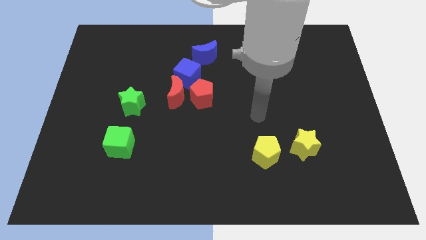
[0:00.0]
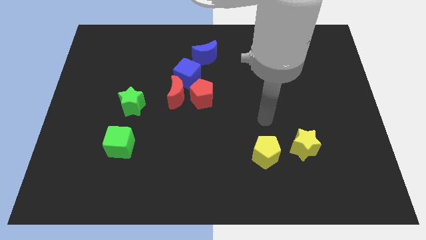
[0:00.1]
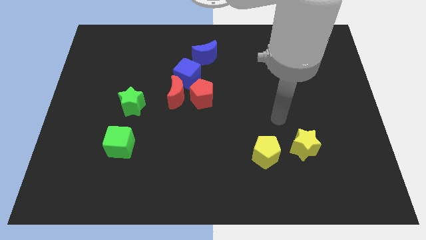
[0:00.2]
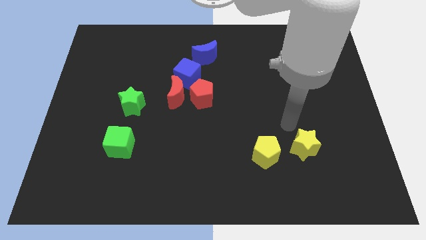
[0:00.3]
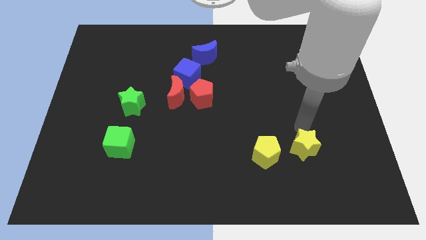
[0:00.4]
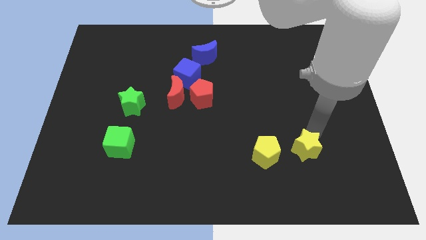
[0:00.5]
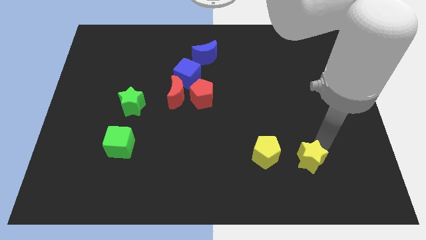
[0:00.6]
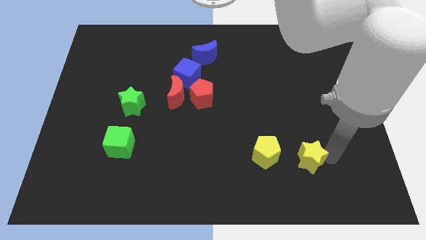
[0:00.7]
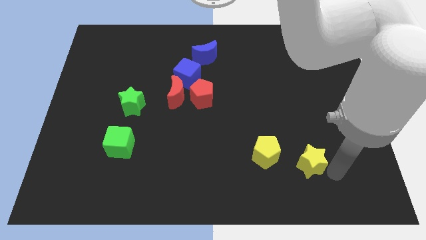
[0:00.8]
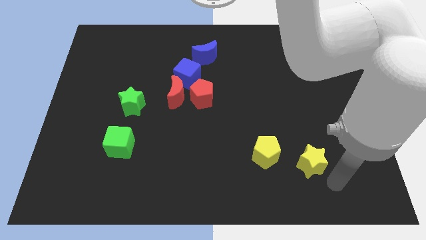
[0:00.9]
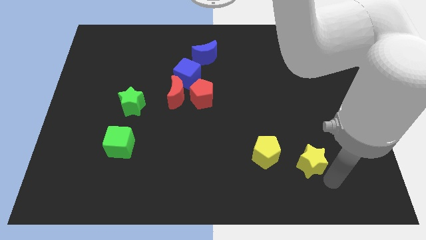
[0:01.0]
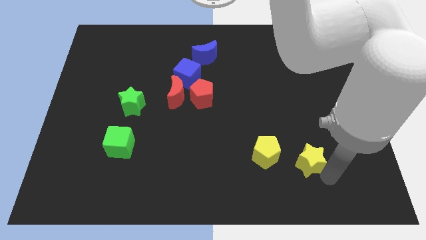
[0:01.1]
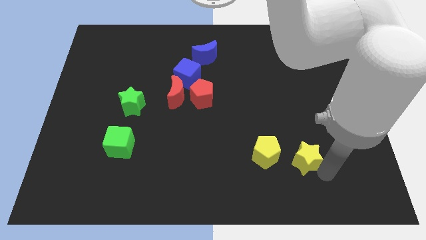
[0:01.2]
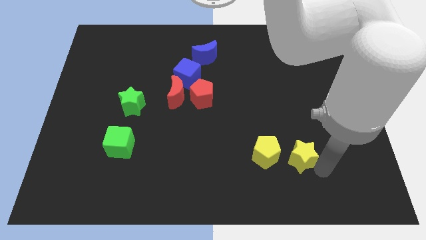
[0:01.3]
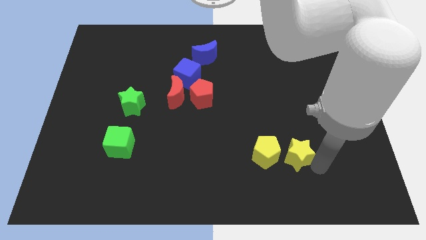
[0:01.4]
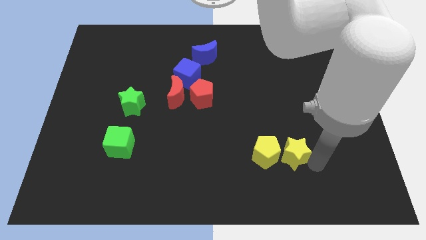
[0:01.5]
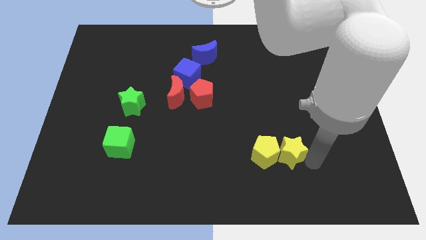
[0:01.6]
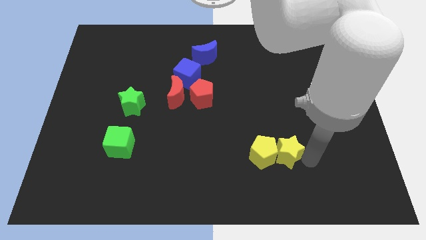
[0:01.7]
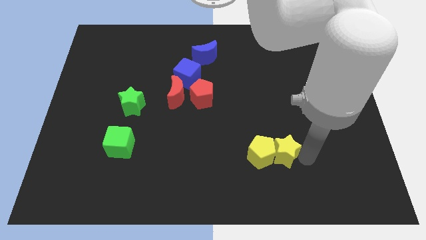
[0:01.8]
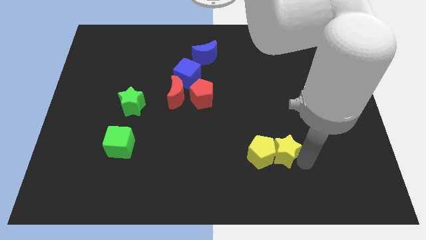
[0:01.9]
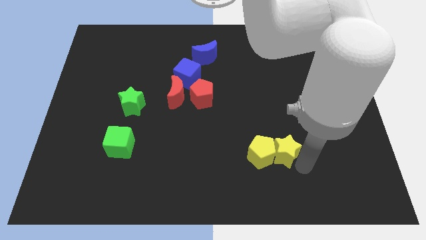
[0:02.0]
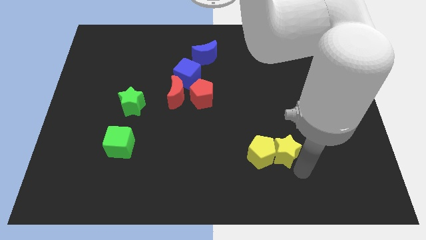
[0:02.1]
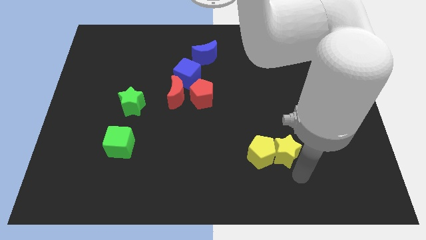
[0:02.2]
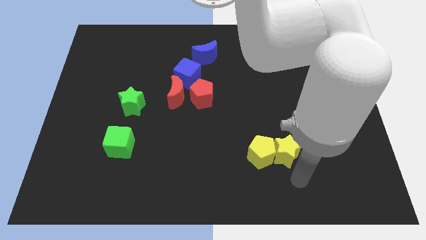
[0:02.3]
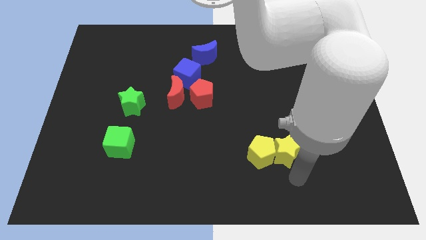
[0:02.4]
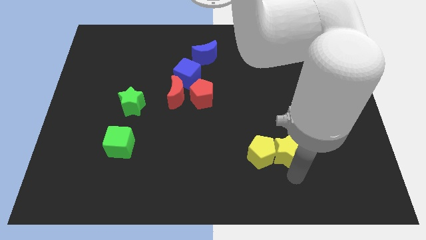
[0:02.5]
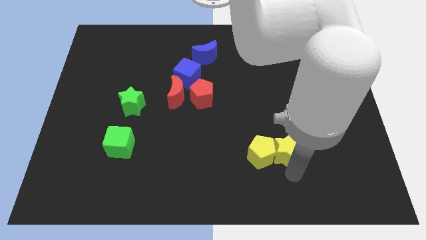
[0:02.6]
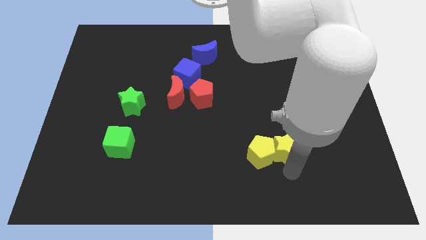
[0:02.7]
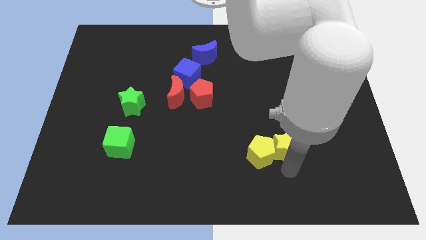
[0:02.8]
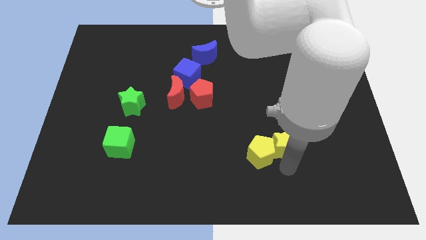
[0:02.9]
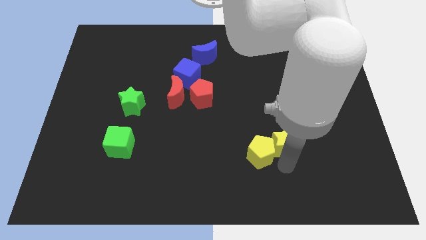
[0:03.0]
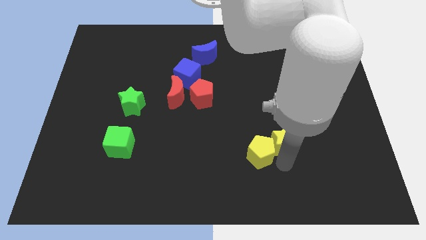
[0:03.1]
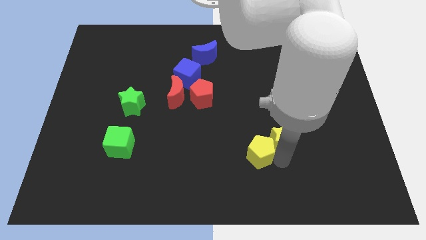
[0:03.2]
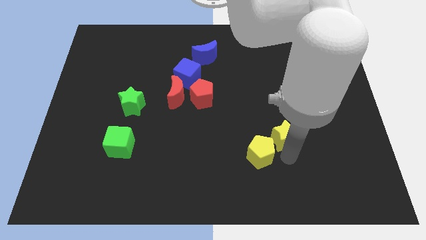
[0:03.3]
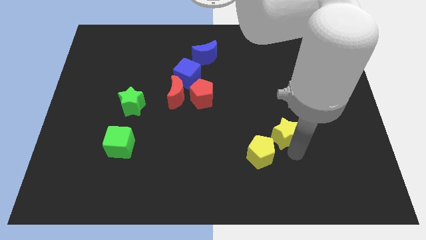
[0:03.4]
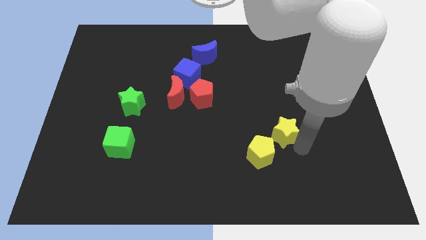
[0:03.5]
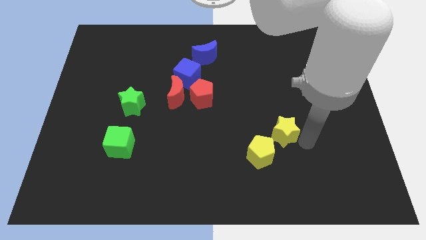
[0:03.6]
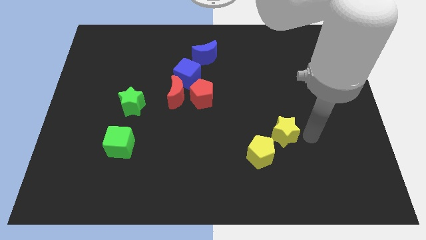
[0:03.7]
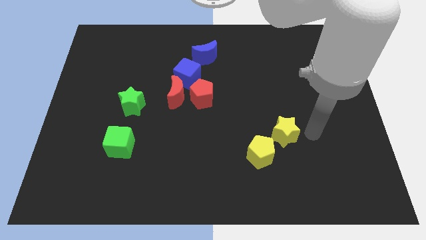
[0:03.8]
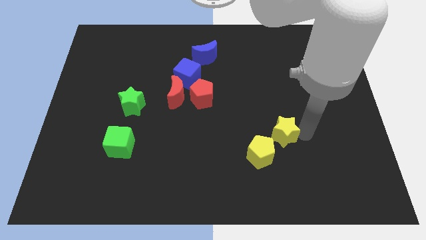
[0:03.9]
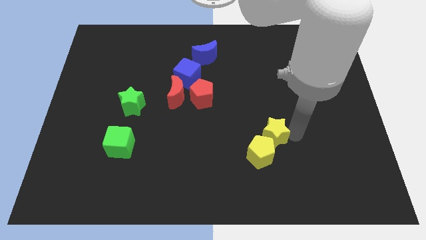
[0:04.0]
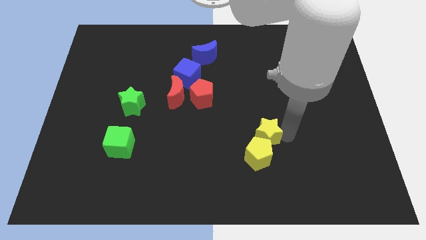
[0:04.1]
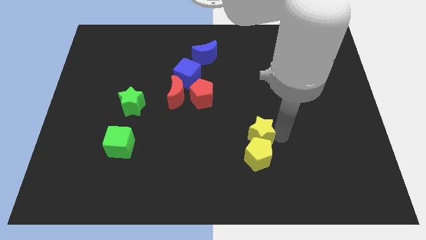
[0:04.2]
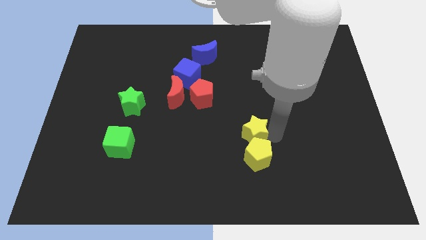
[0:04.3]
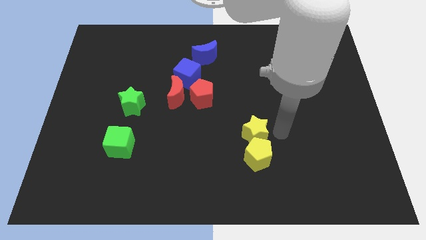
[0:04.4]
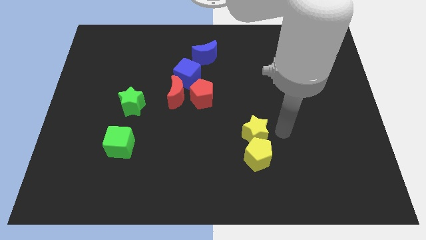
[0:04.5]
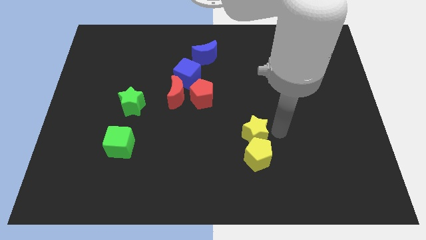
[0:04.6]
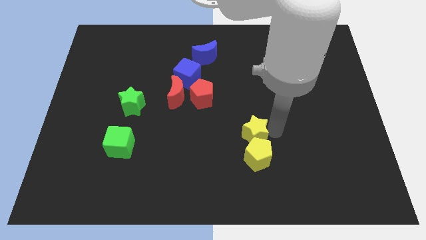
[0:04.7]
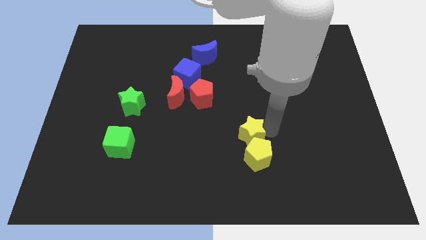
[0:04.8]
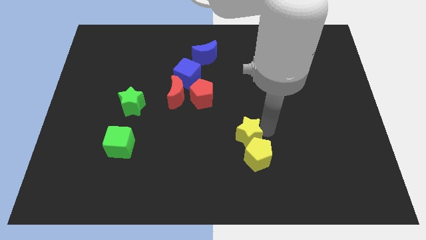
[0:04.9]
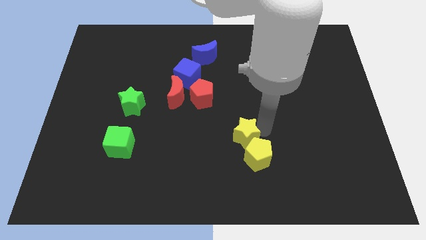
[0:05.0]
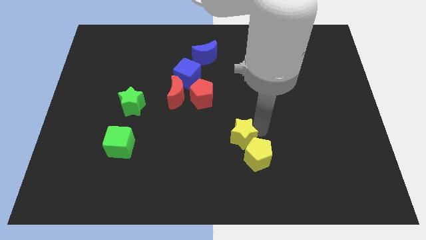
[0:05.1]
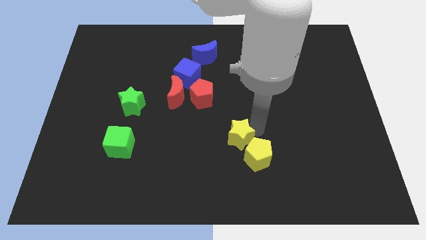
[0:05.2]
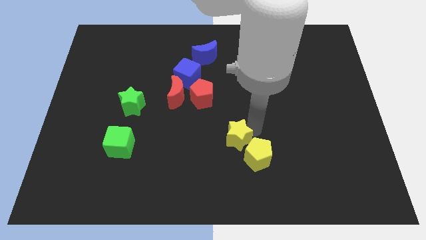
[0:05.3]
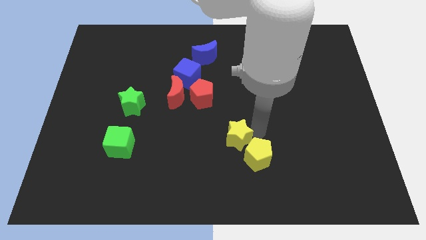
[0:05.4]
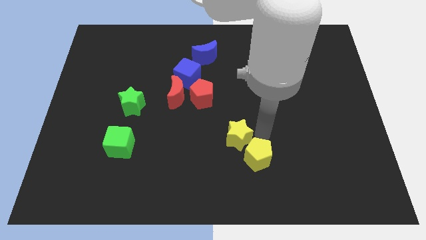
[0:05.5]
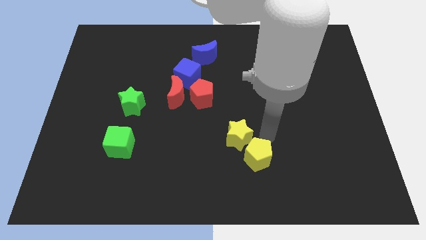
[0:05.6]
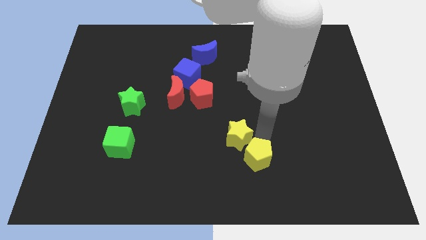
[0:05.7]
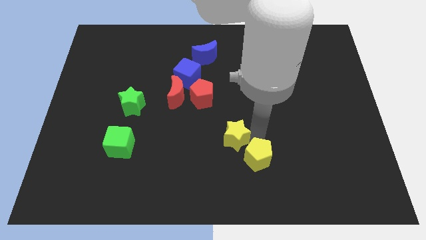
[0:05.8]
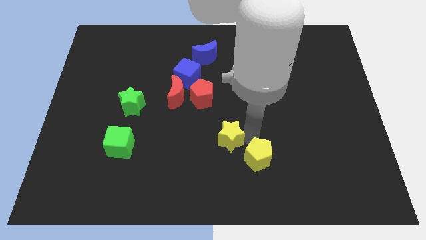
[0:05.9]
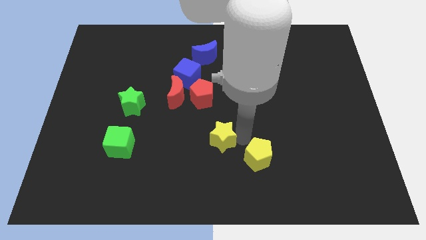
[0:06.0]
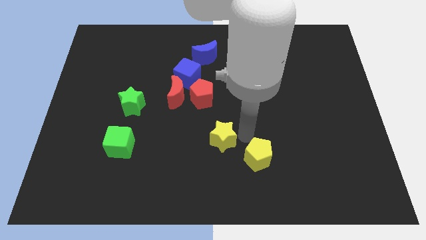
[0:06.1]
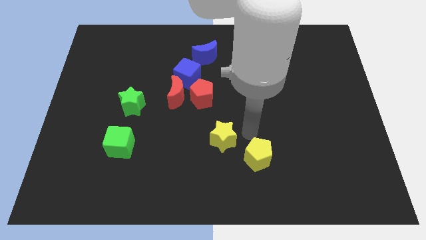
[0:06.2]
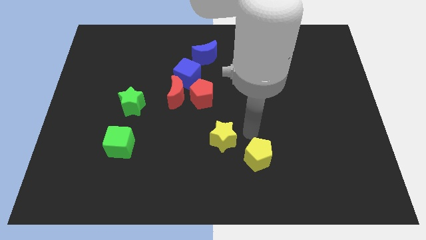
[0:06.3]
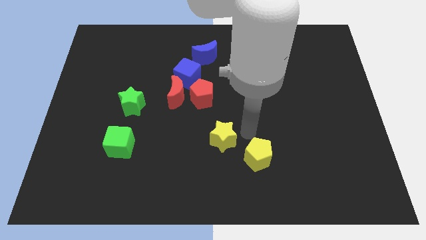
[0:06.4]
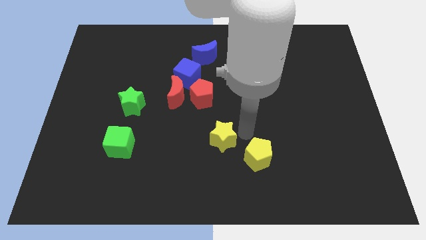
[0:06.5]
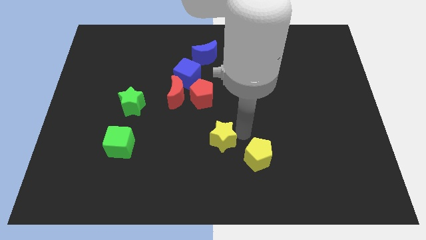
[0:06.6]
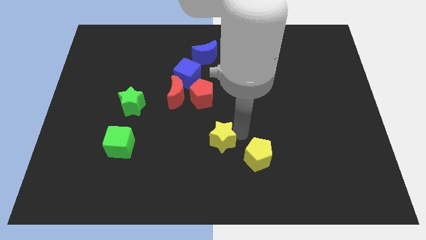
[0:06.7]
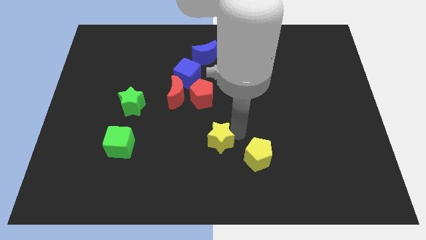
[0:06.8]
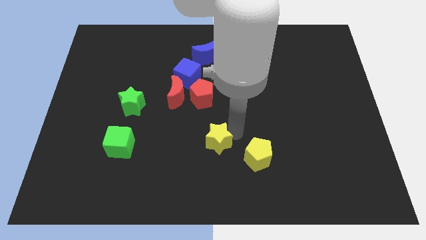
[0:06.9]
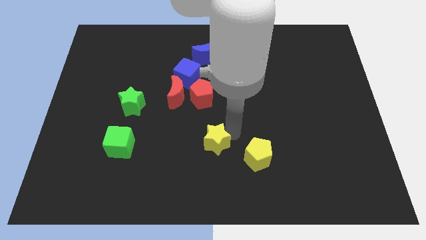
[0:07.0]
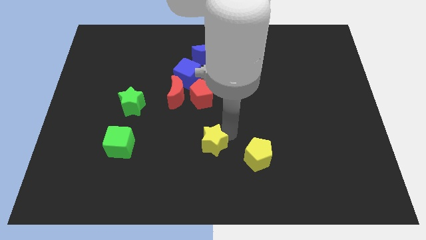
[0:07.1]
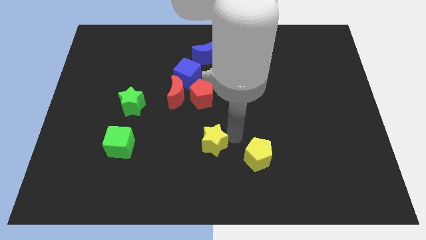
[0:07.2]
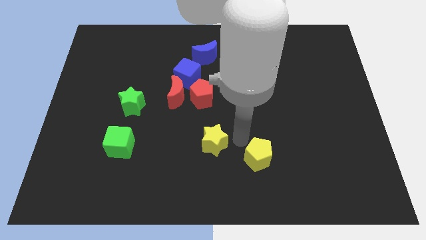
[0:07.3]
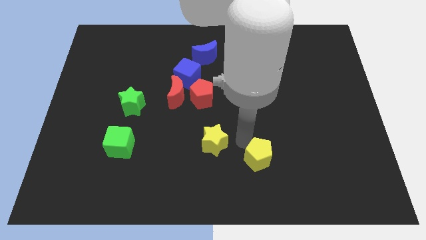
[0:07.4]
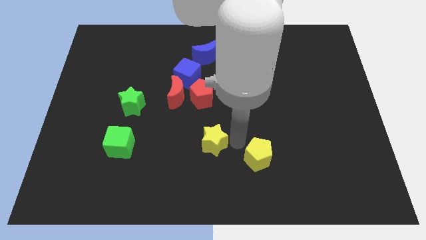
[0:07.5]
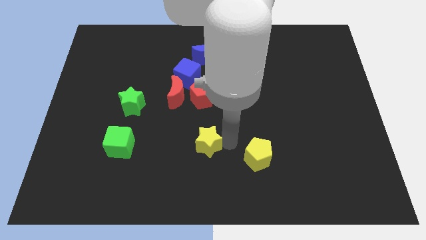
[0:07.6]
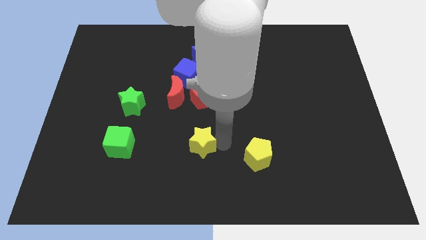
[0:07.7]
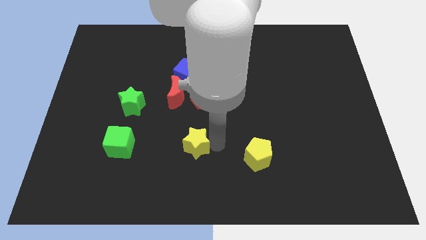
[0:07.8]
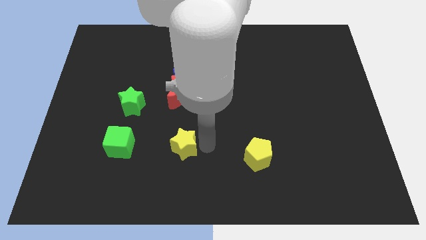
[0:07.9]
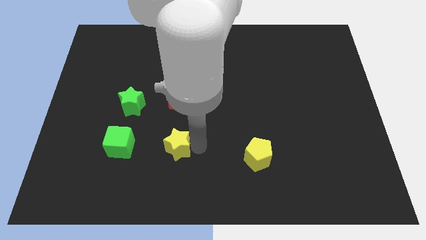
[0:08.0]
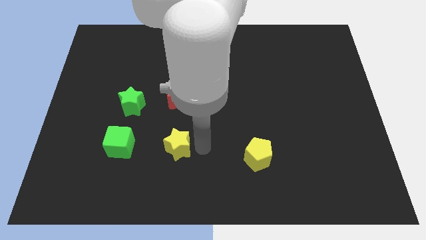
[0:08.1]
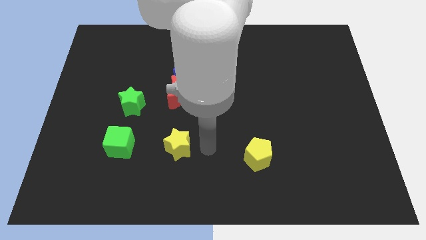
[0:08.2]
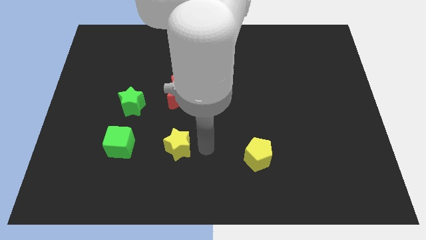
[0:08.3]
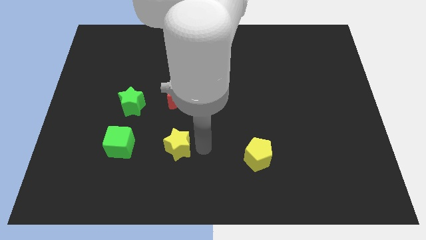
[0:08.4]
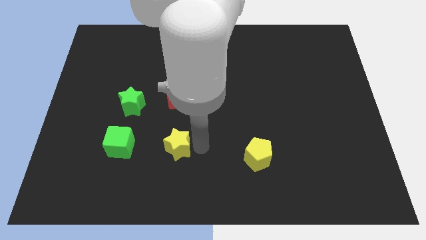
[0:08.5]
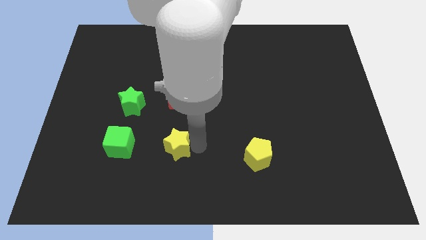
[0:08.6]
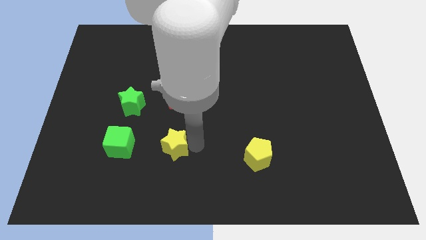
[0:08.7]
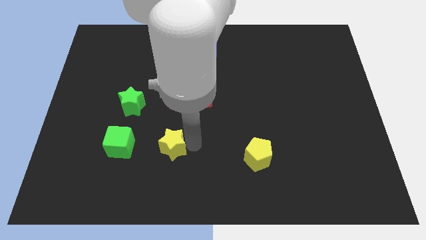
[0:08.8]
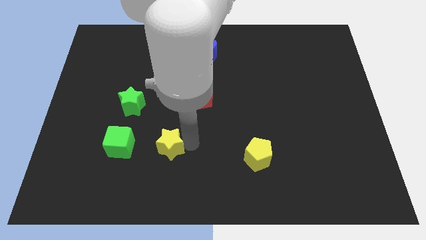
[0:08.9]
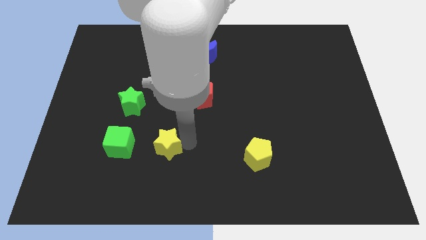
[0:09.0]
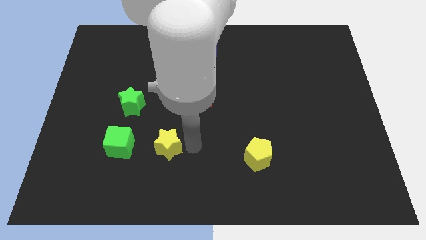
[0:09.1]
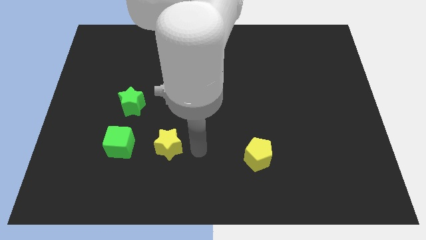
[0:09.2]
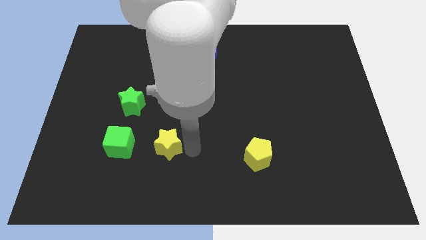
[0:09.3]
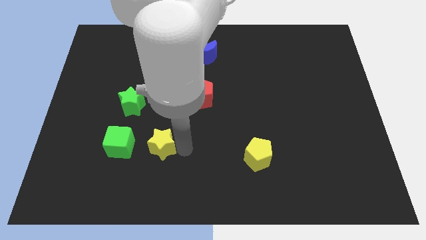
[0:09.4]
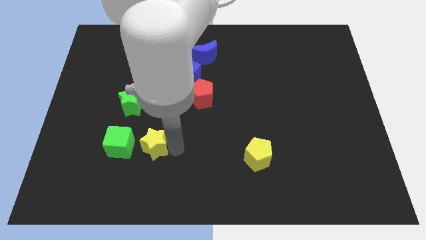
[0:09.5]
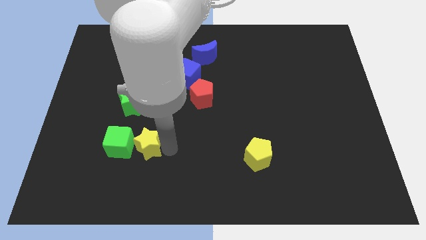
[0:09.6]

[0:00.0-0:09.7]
move the yellow star next to the green cube
